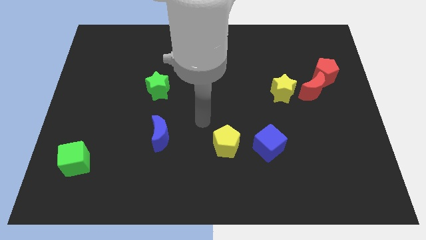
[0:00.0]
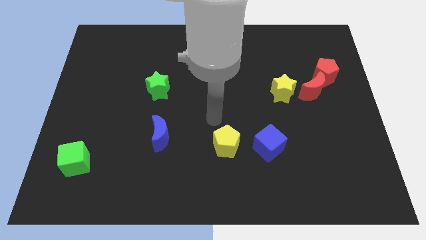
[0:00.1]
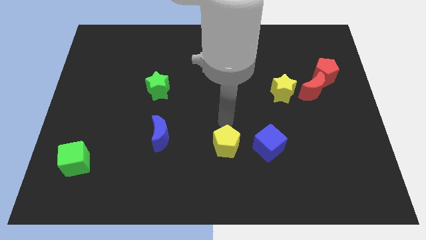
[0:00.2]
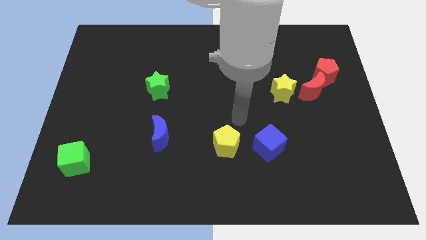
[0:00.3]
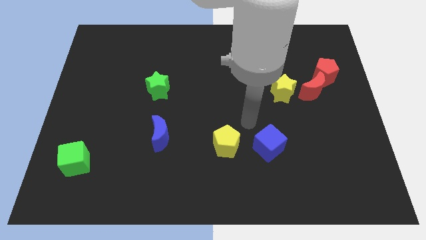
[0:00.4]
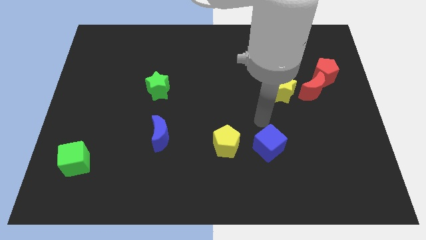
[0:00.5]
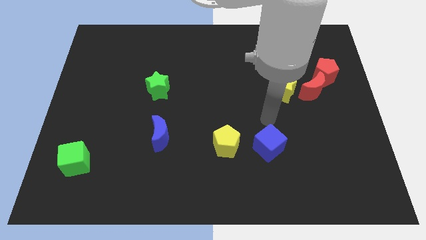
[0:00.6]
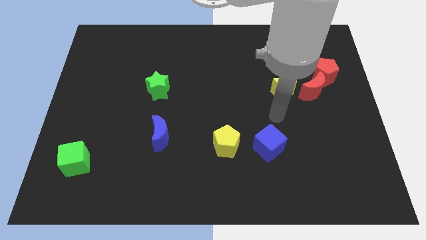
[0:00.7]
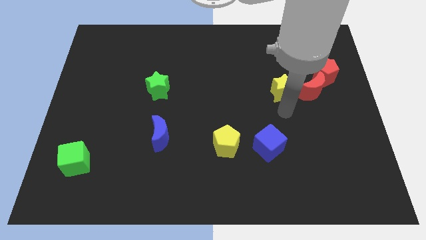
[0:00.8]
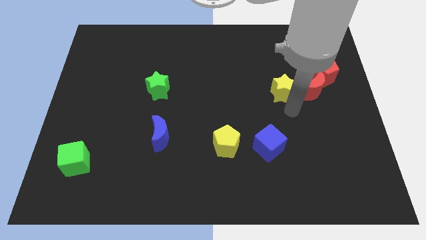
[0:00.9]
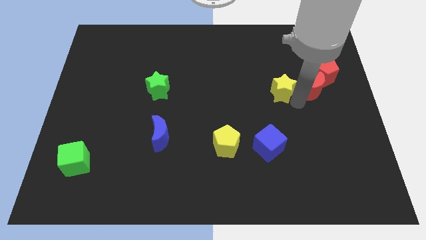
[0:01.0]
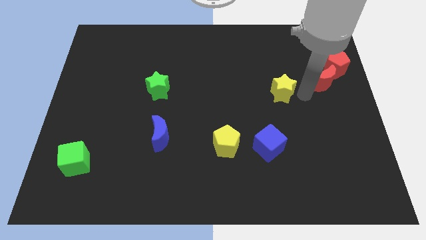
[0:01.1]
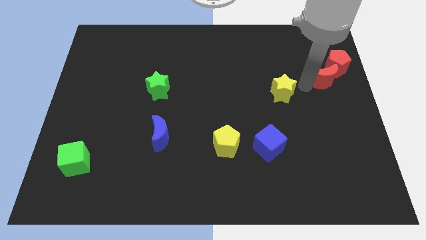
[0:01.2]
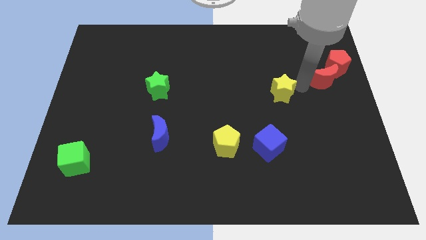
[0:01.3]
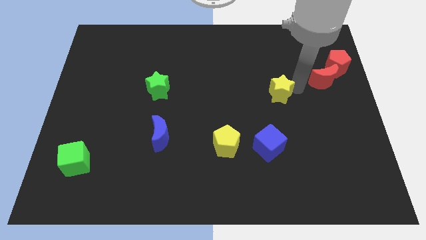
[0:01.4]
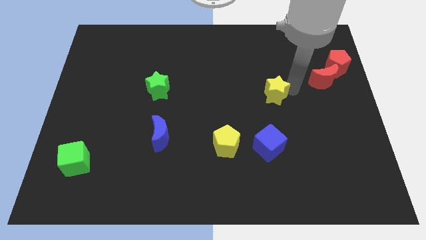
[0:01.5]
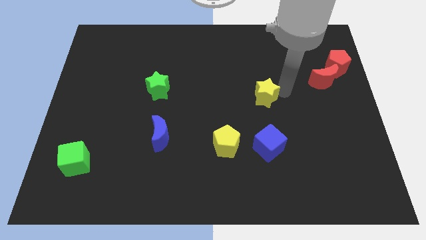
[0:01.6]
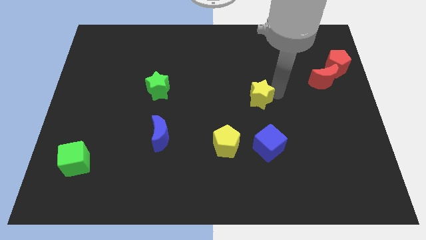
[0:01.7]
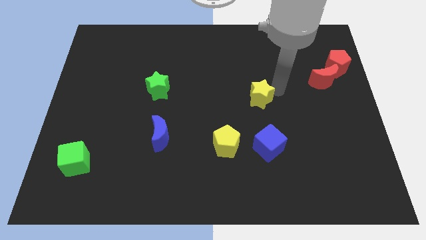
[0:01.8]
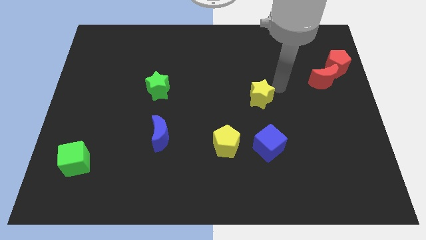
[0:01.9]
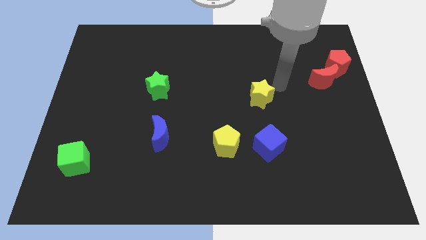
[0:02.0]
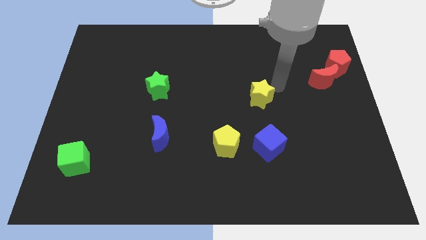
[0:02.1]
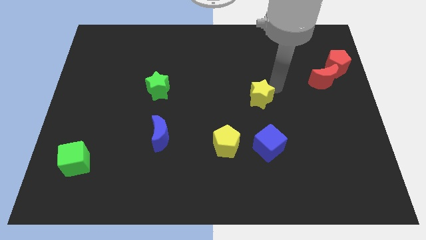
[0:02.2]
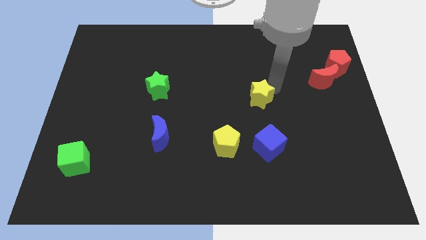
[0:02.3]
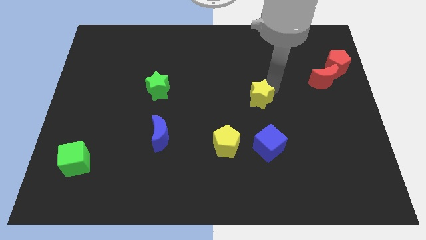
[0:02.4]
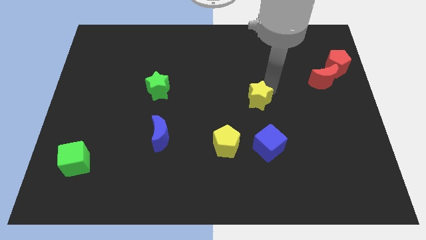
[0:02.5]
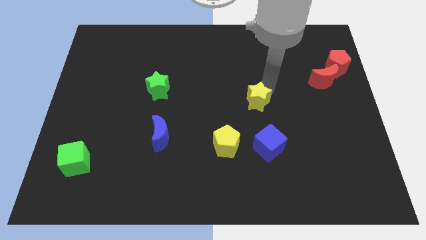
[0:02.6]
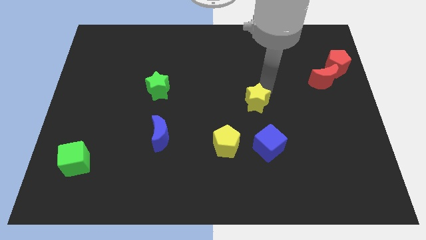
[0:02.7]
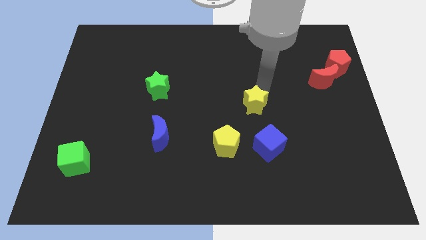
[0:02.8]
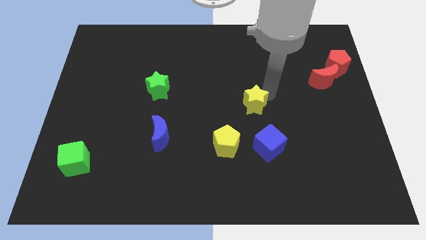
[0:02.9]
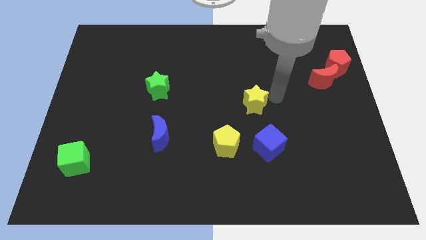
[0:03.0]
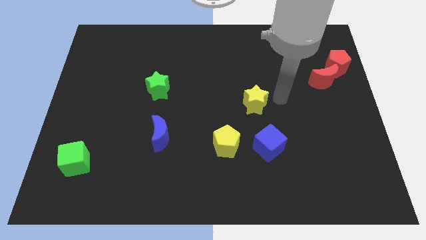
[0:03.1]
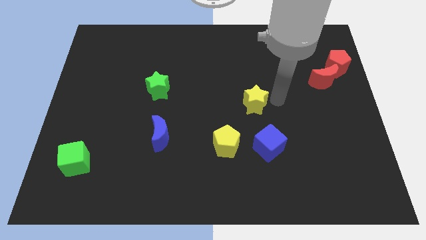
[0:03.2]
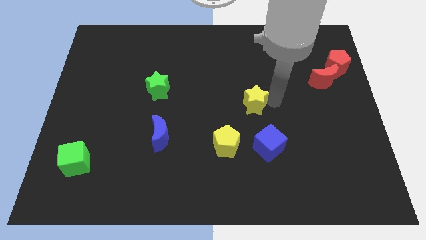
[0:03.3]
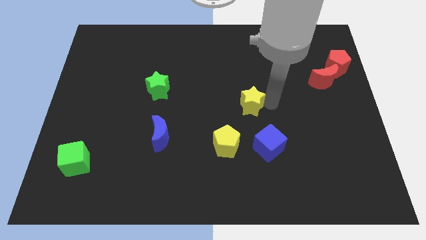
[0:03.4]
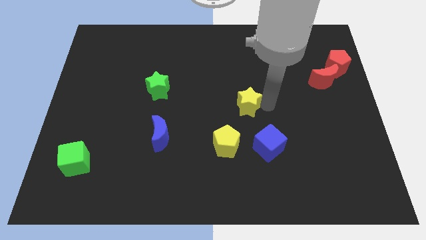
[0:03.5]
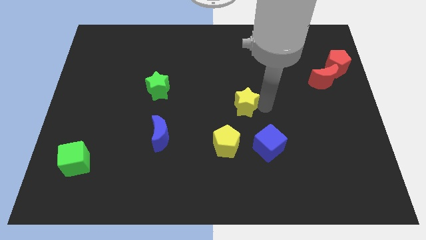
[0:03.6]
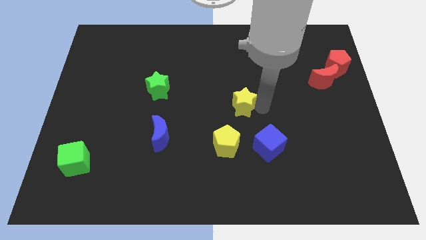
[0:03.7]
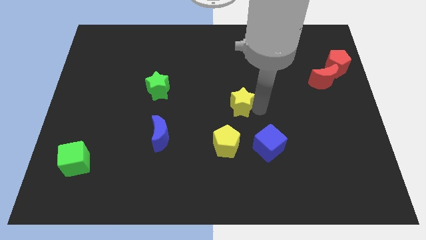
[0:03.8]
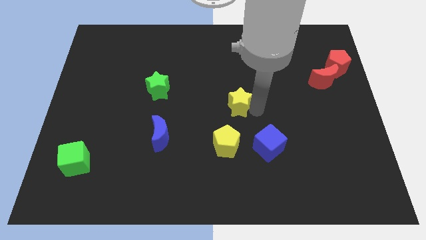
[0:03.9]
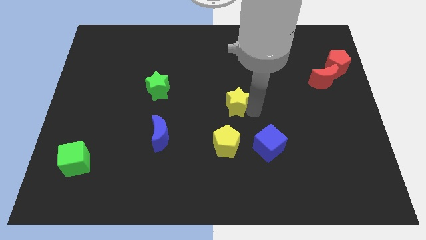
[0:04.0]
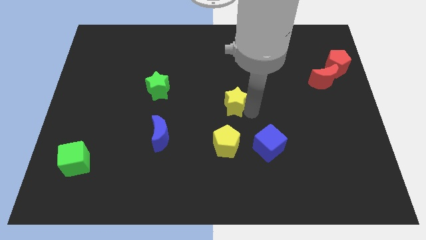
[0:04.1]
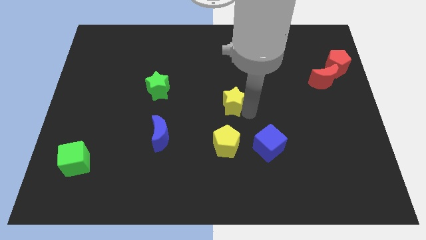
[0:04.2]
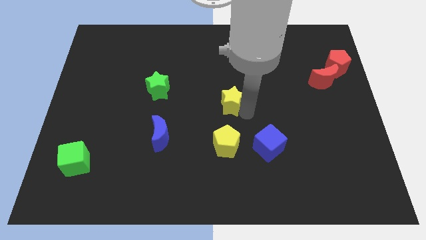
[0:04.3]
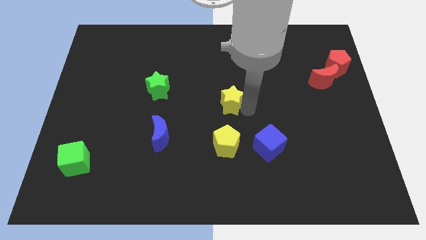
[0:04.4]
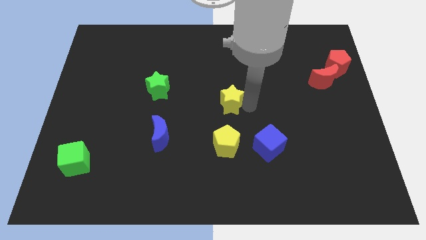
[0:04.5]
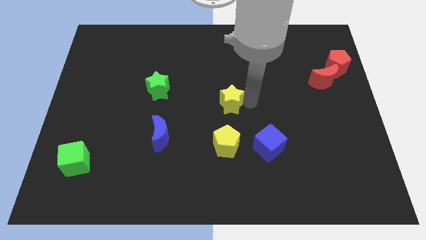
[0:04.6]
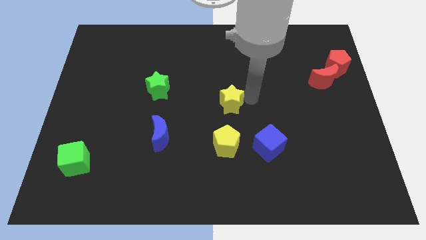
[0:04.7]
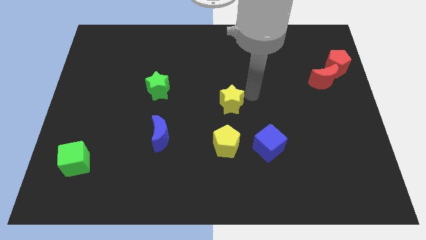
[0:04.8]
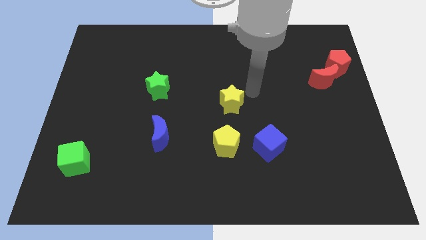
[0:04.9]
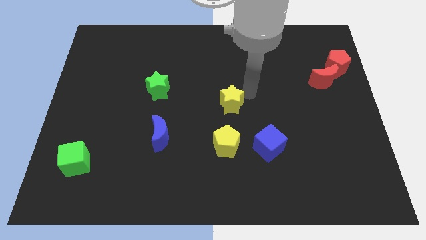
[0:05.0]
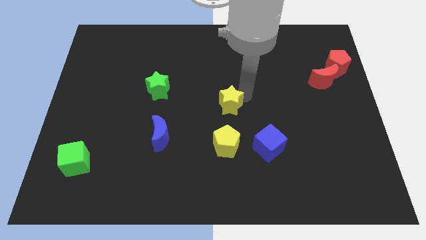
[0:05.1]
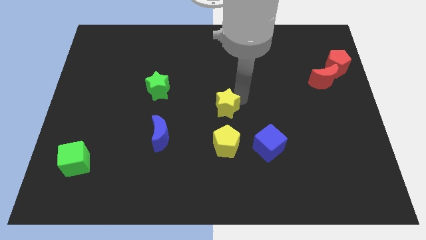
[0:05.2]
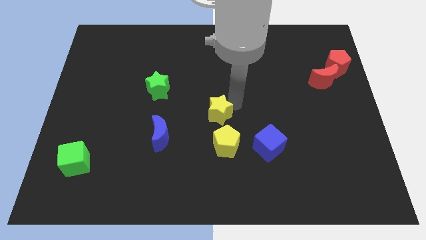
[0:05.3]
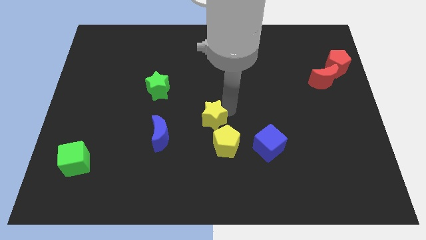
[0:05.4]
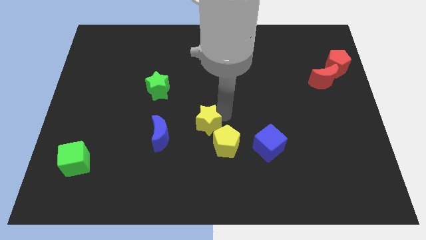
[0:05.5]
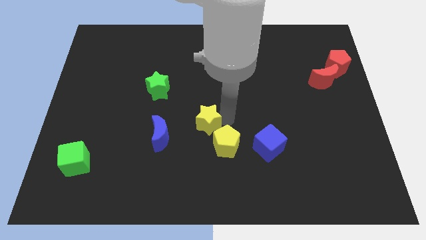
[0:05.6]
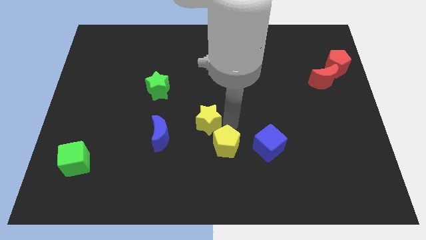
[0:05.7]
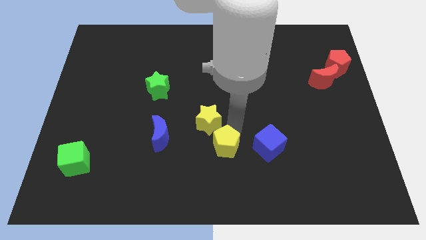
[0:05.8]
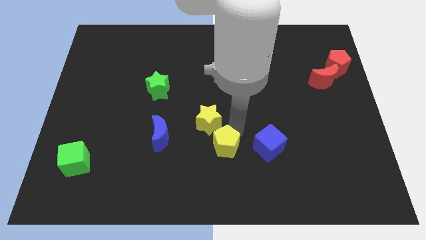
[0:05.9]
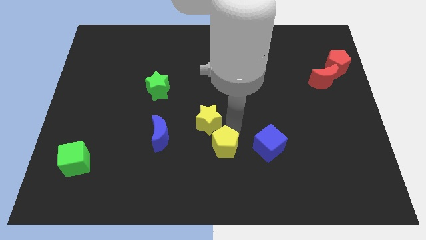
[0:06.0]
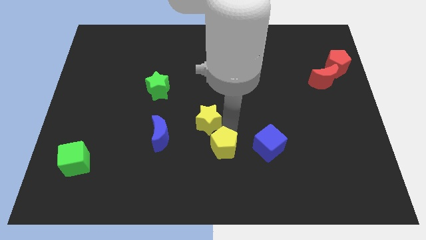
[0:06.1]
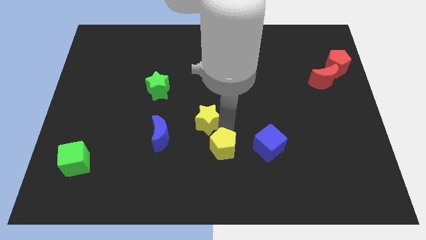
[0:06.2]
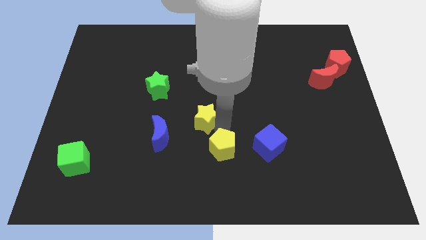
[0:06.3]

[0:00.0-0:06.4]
slide the yellow star to the top right side of the blue moon

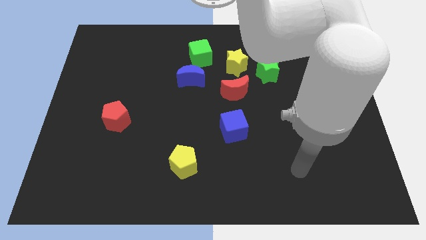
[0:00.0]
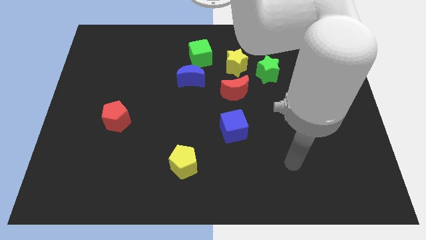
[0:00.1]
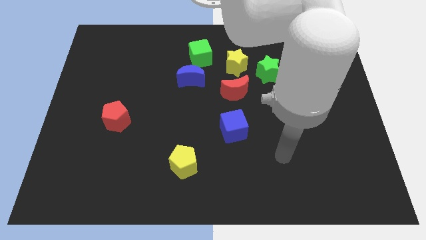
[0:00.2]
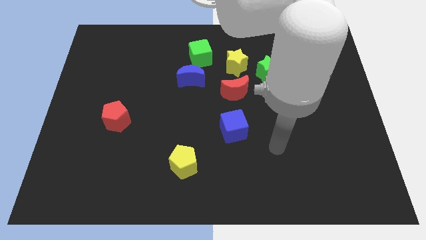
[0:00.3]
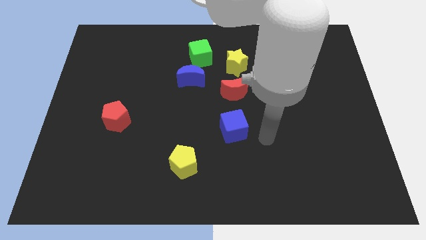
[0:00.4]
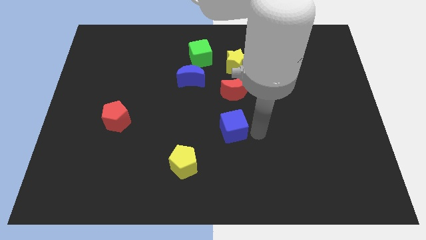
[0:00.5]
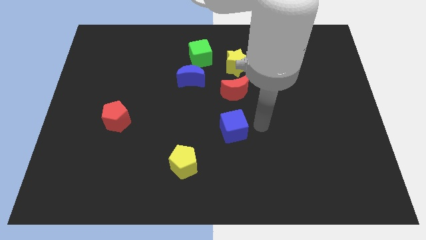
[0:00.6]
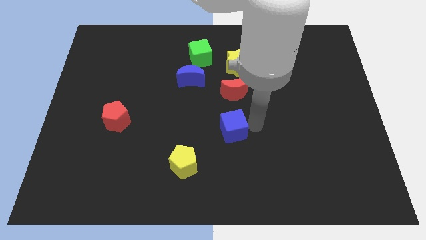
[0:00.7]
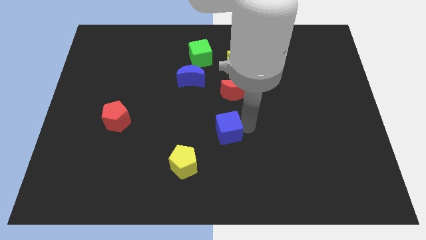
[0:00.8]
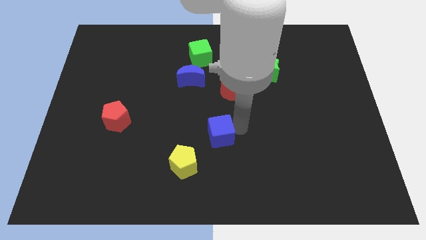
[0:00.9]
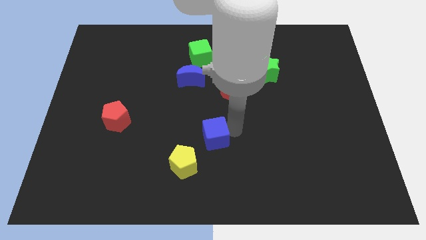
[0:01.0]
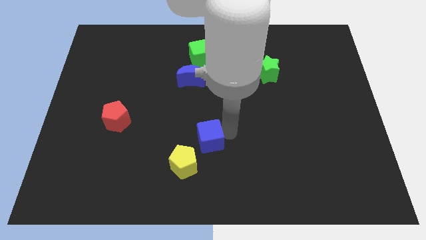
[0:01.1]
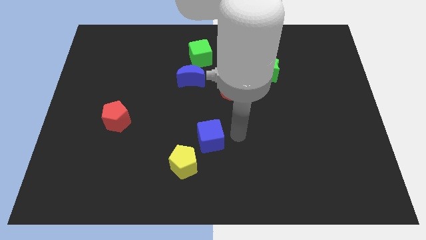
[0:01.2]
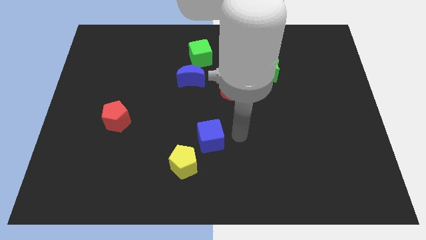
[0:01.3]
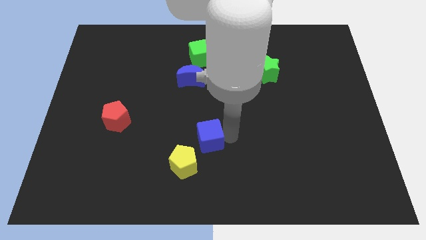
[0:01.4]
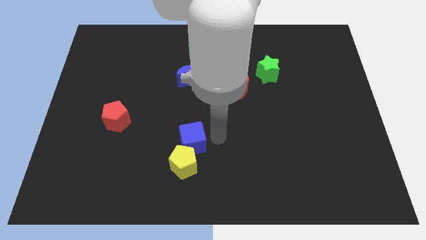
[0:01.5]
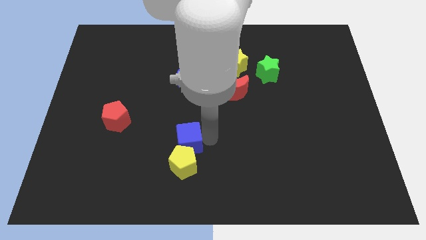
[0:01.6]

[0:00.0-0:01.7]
slide the blue cube to the top left of the yellow pentagon
